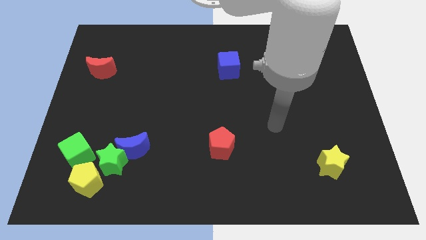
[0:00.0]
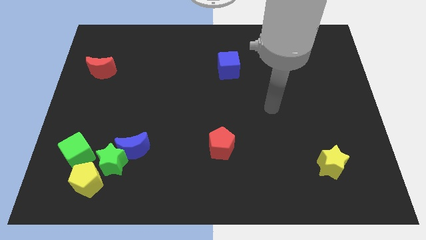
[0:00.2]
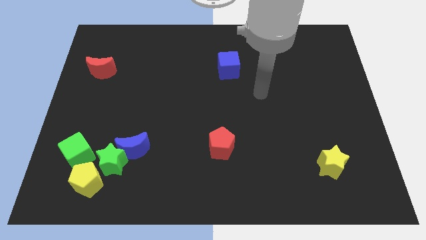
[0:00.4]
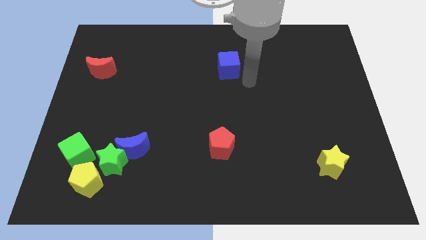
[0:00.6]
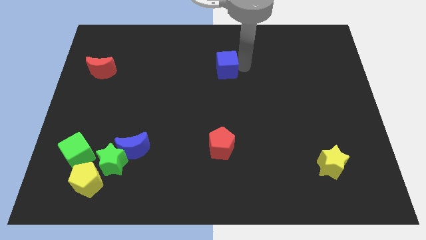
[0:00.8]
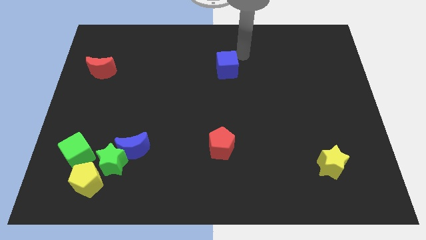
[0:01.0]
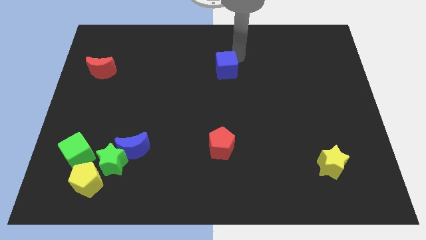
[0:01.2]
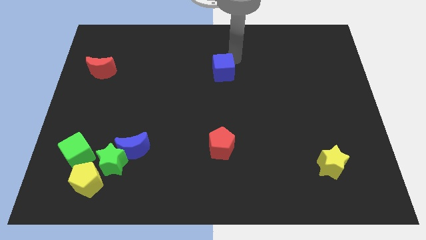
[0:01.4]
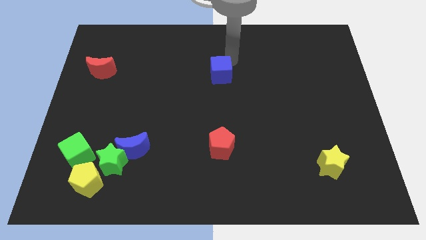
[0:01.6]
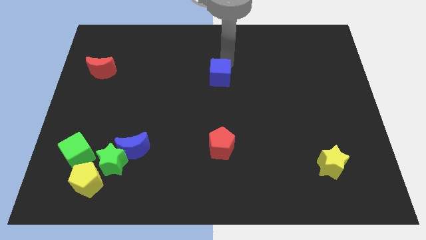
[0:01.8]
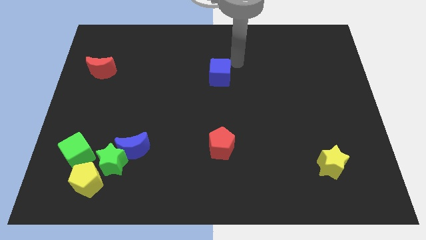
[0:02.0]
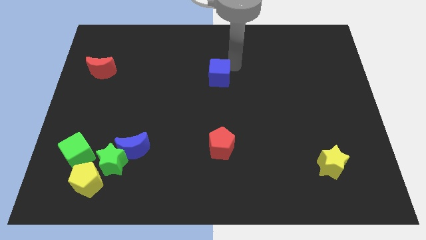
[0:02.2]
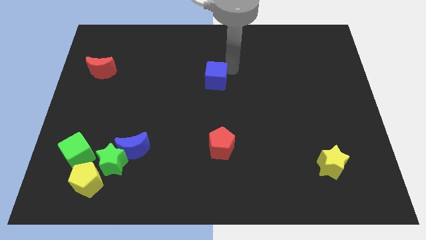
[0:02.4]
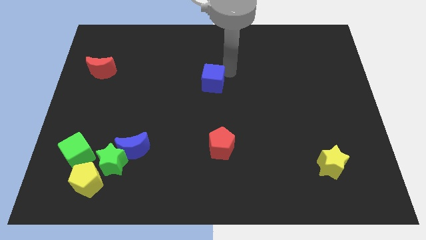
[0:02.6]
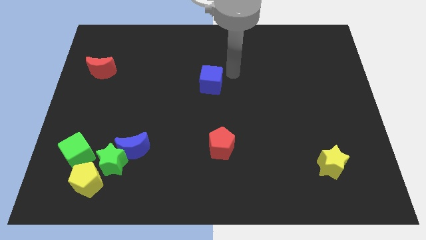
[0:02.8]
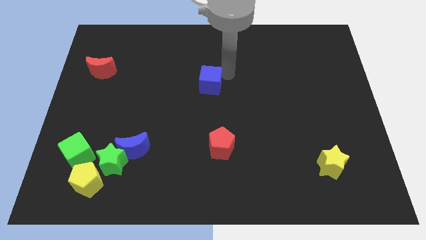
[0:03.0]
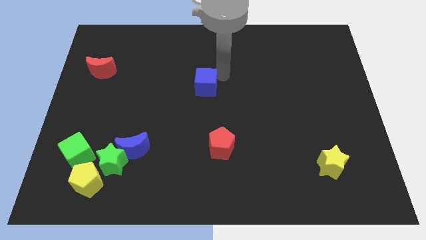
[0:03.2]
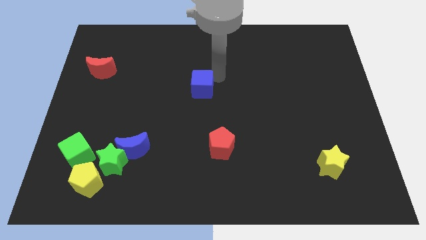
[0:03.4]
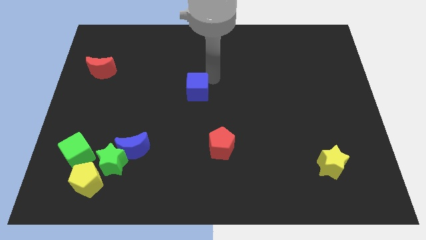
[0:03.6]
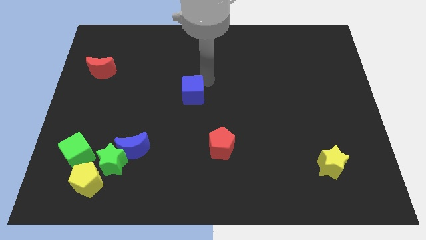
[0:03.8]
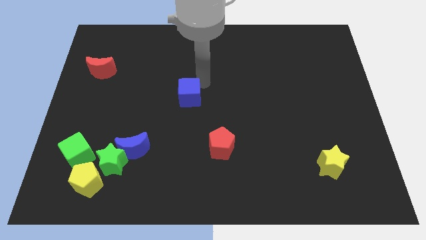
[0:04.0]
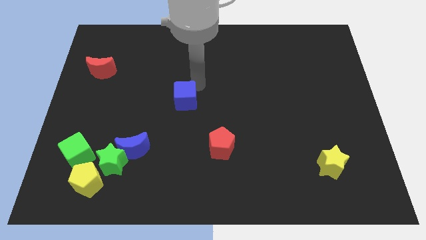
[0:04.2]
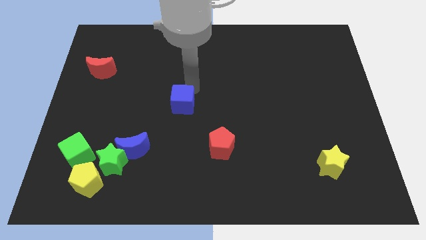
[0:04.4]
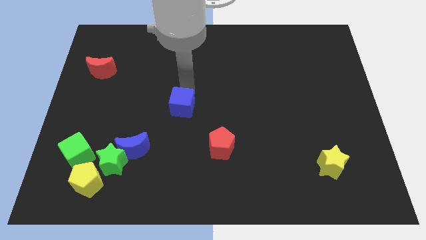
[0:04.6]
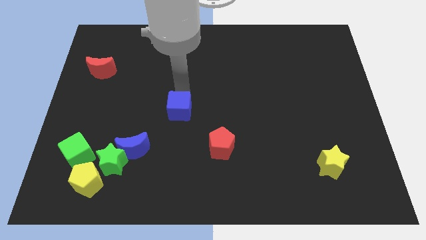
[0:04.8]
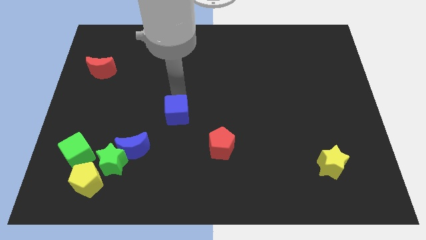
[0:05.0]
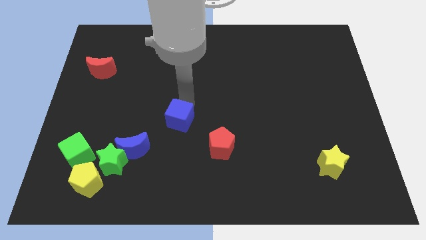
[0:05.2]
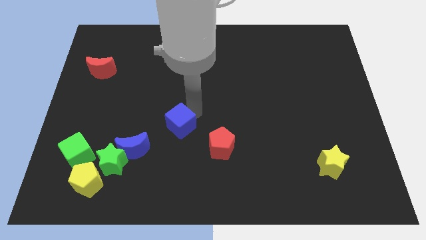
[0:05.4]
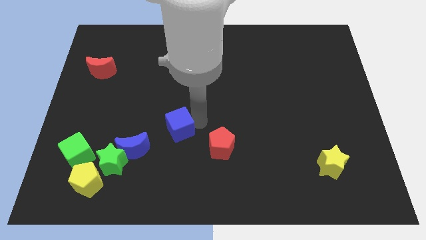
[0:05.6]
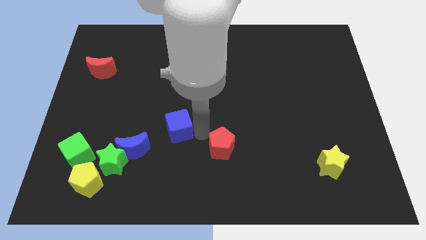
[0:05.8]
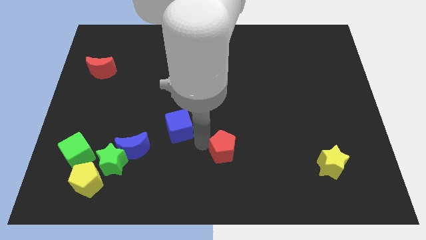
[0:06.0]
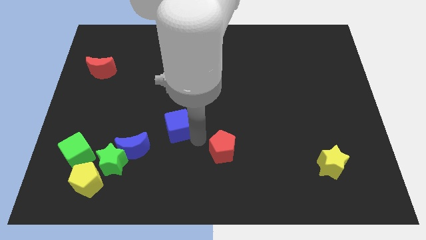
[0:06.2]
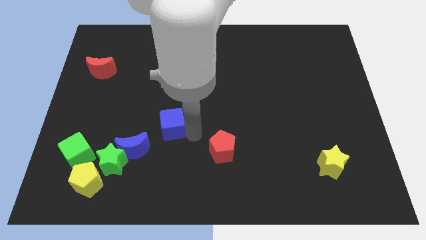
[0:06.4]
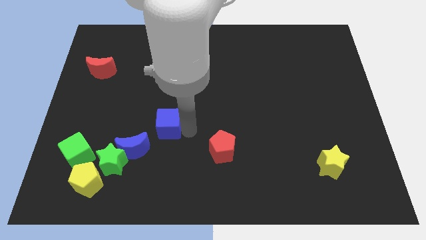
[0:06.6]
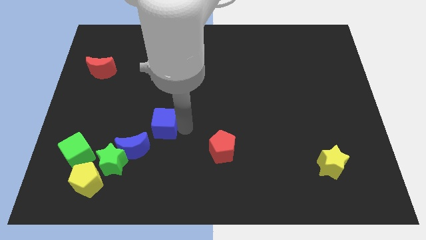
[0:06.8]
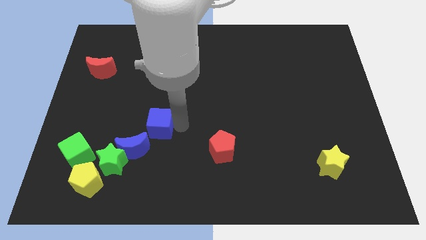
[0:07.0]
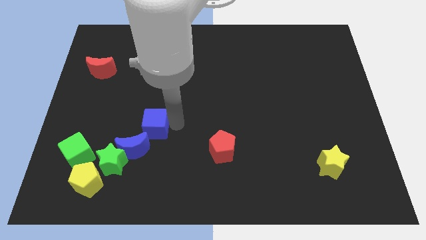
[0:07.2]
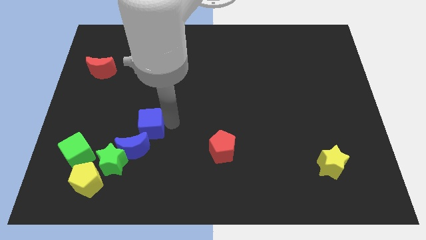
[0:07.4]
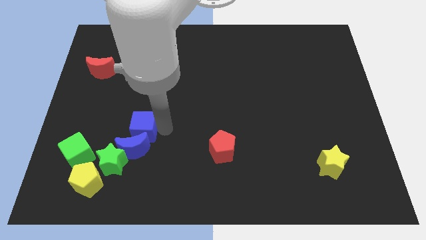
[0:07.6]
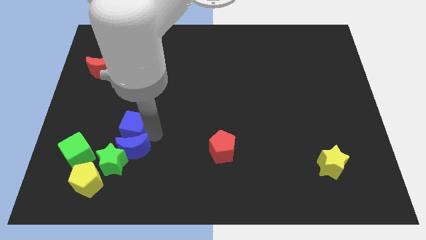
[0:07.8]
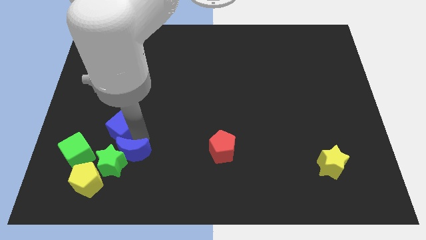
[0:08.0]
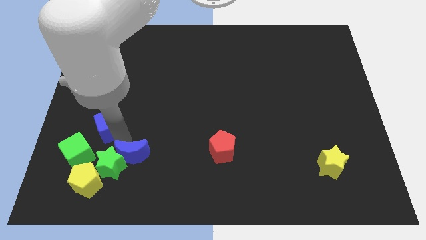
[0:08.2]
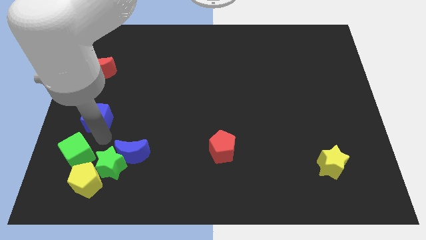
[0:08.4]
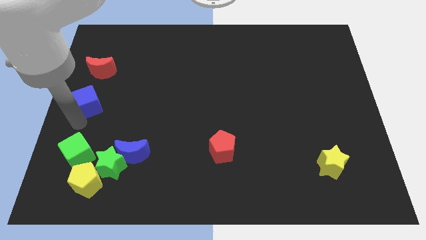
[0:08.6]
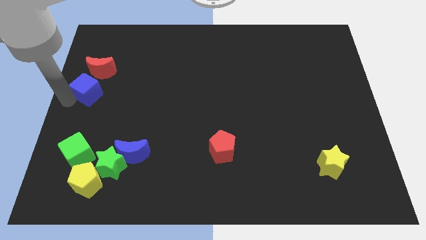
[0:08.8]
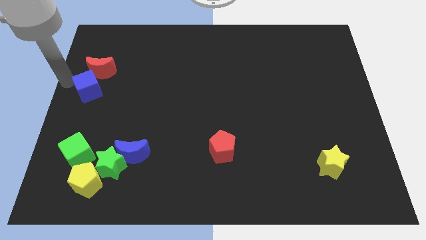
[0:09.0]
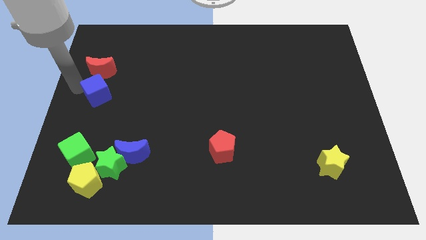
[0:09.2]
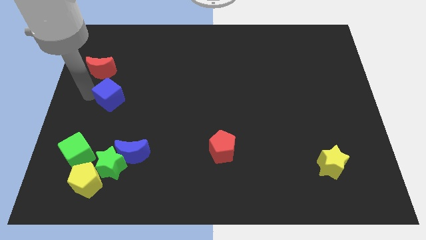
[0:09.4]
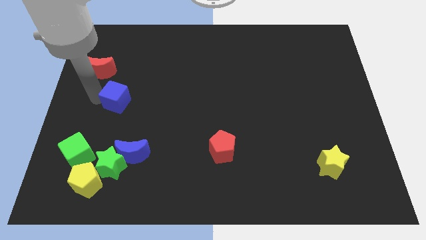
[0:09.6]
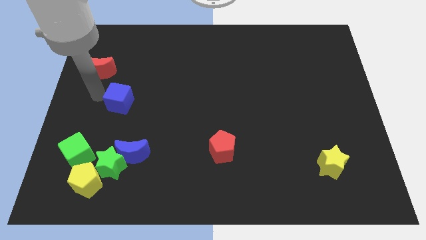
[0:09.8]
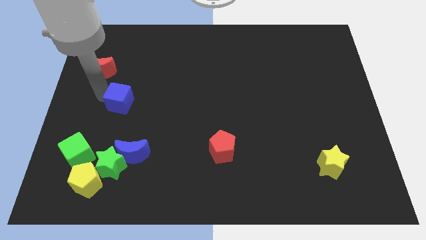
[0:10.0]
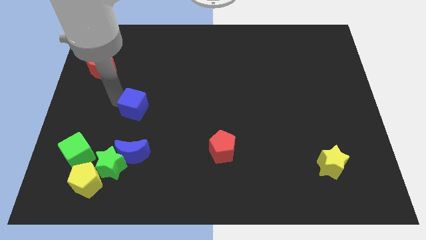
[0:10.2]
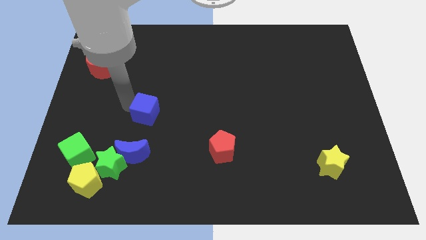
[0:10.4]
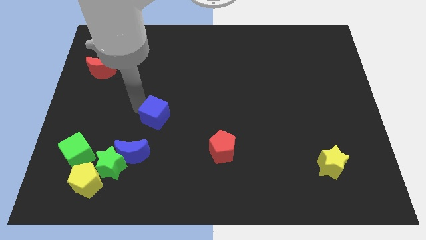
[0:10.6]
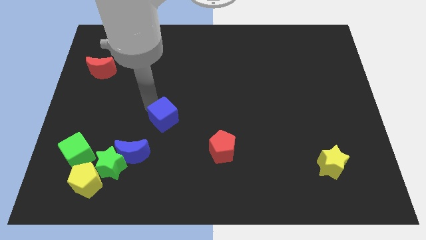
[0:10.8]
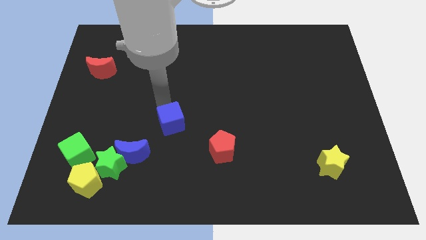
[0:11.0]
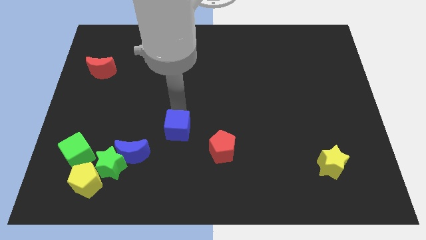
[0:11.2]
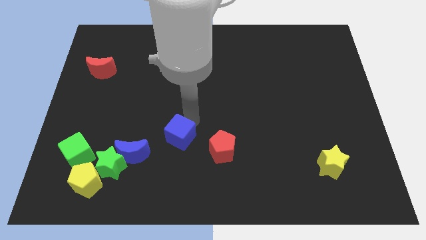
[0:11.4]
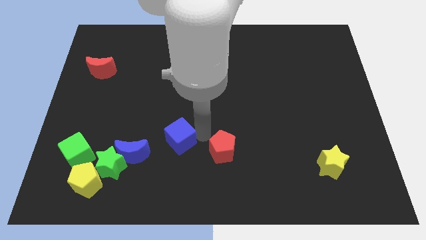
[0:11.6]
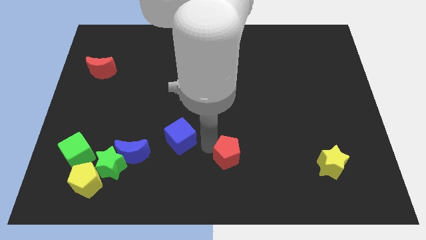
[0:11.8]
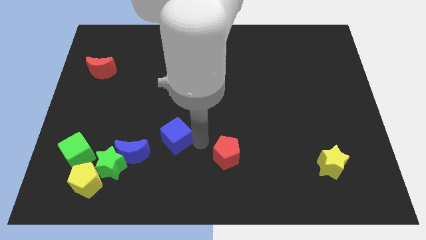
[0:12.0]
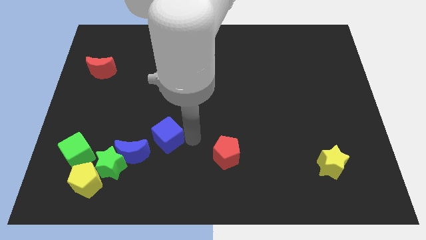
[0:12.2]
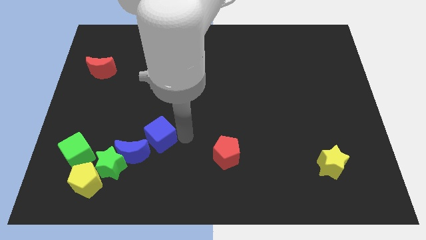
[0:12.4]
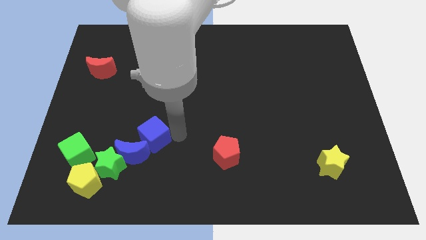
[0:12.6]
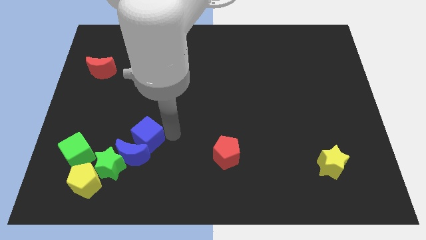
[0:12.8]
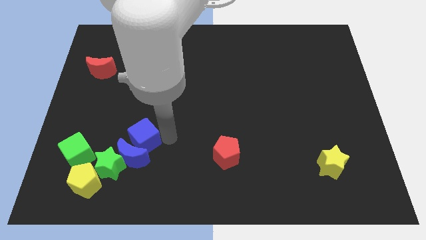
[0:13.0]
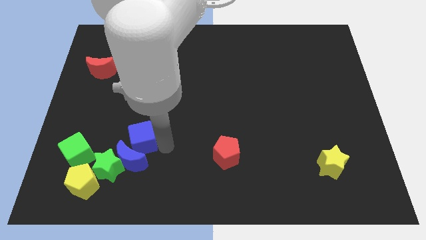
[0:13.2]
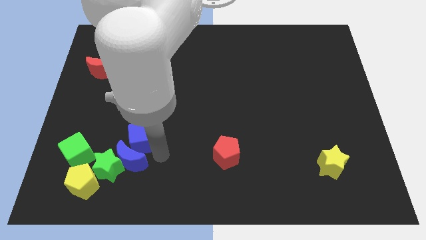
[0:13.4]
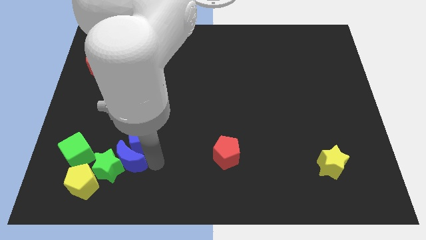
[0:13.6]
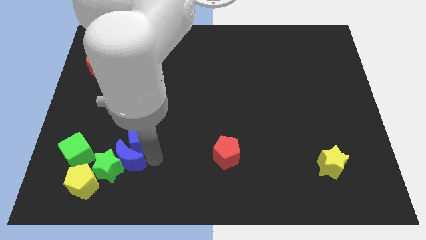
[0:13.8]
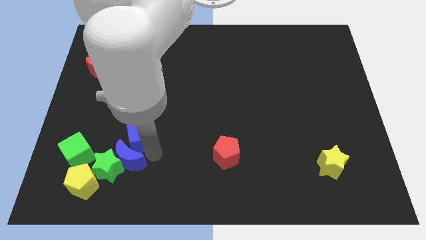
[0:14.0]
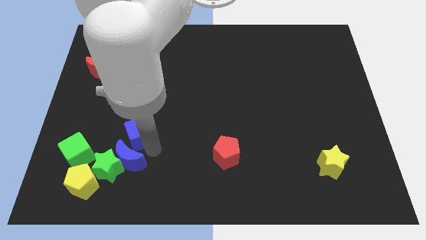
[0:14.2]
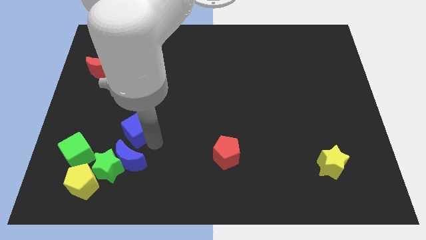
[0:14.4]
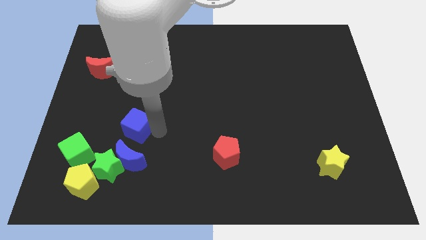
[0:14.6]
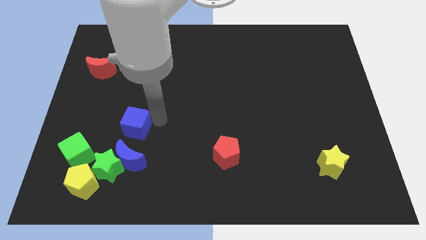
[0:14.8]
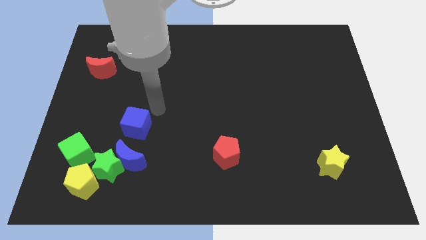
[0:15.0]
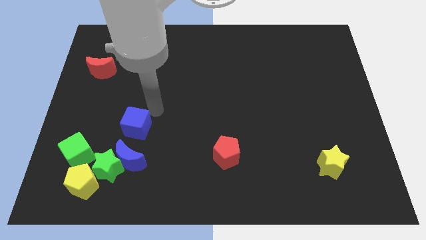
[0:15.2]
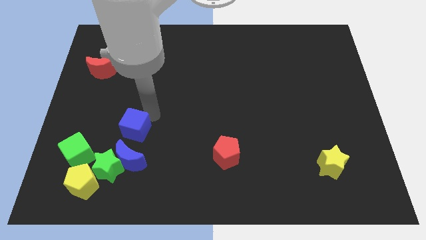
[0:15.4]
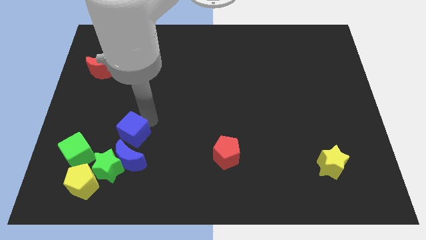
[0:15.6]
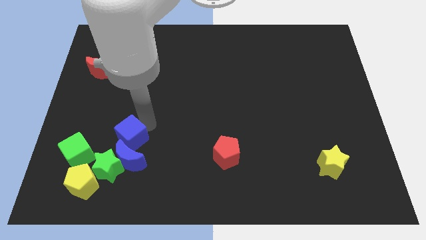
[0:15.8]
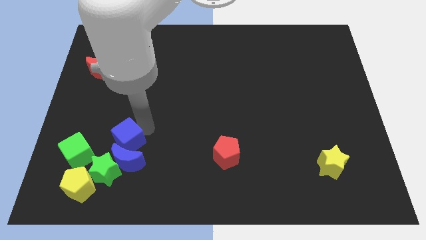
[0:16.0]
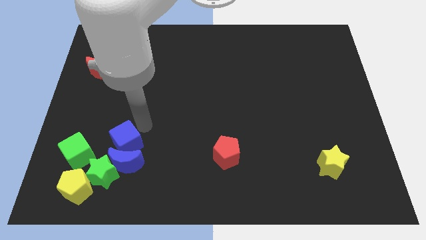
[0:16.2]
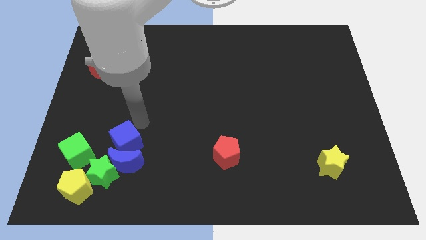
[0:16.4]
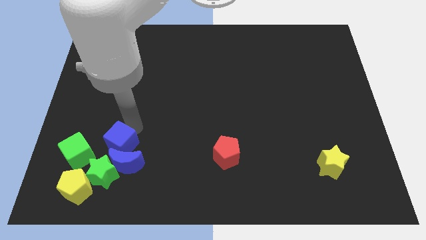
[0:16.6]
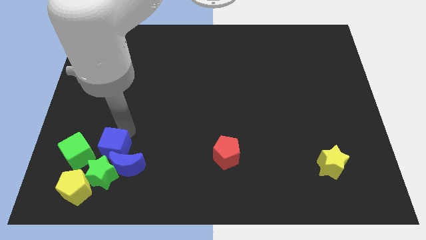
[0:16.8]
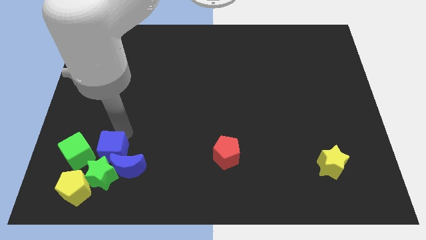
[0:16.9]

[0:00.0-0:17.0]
move the blue cube to the green star
